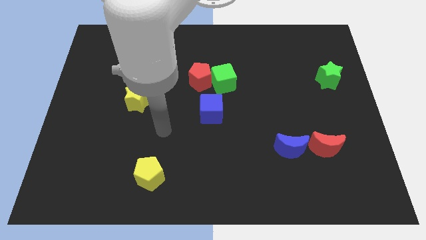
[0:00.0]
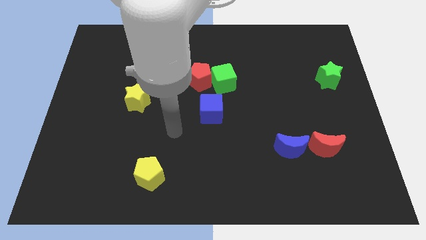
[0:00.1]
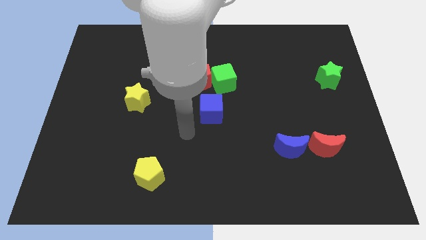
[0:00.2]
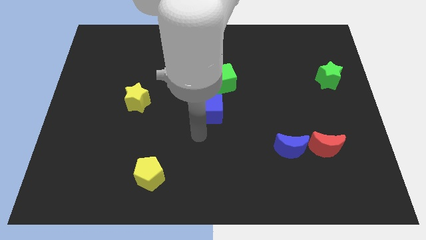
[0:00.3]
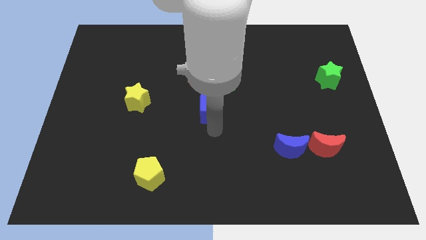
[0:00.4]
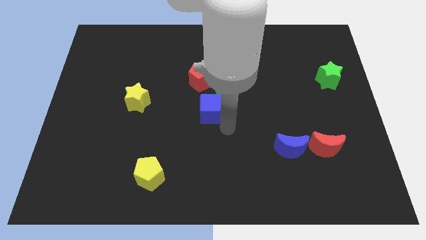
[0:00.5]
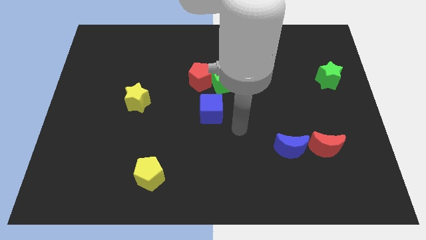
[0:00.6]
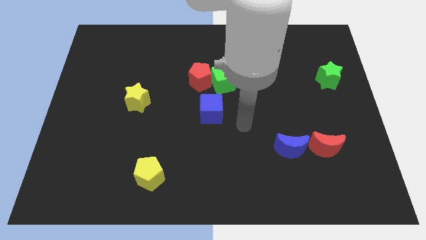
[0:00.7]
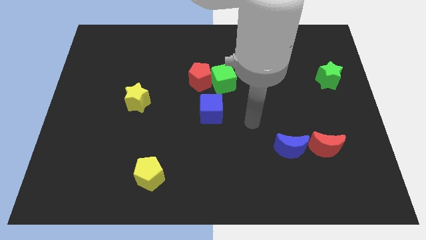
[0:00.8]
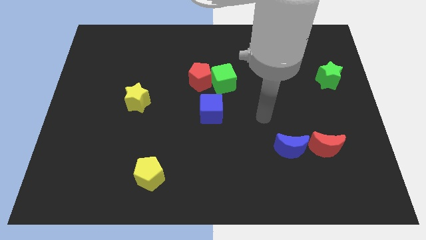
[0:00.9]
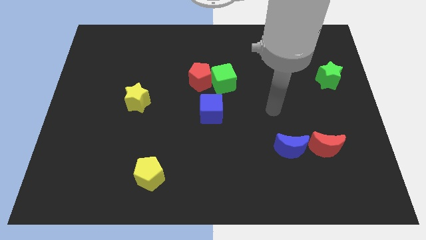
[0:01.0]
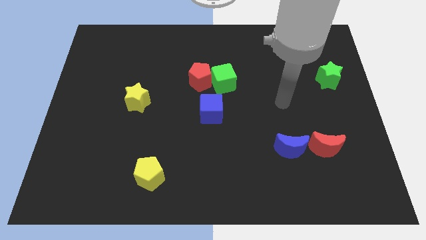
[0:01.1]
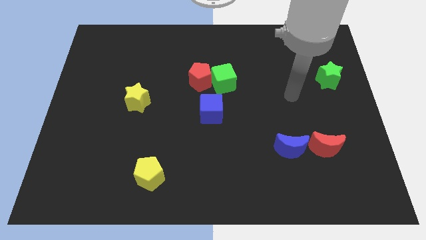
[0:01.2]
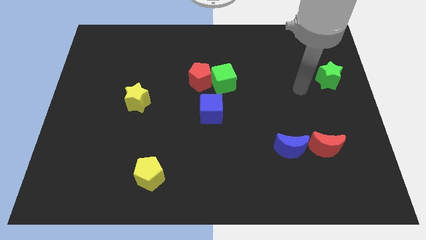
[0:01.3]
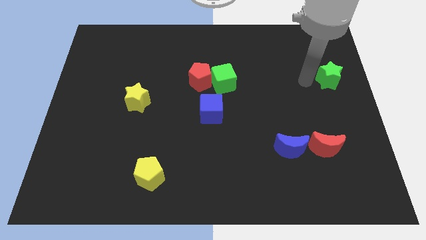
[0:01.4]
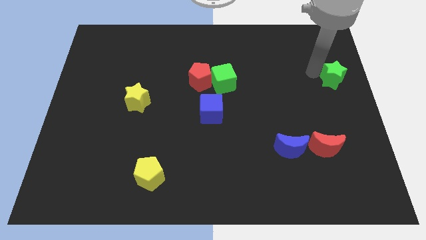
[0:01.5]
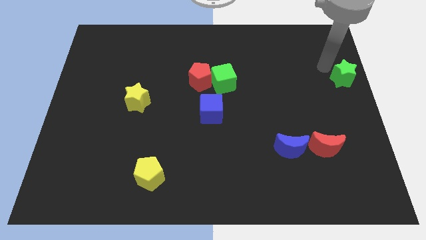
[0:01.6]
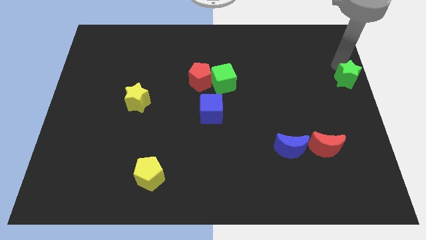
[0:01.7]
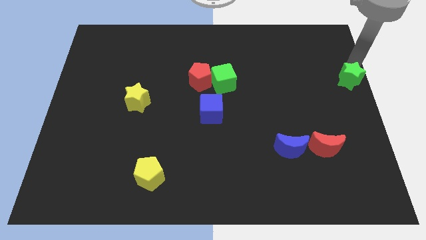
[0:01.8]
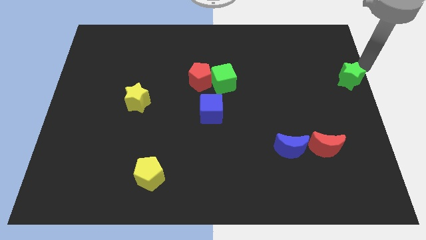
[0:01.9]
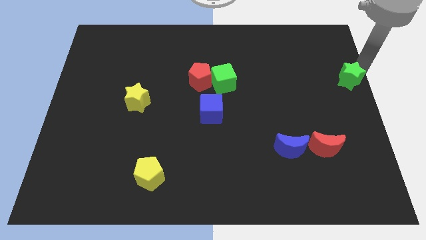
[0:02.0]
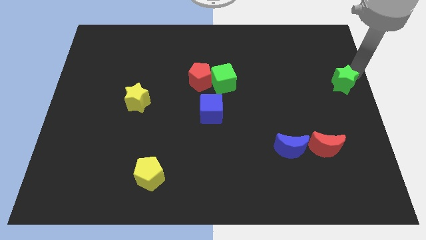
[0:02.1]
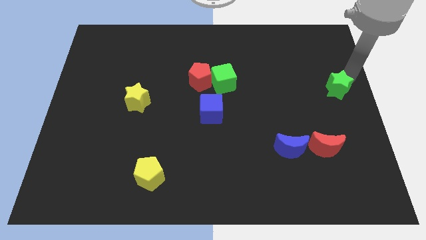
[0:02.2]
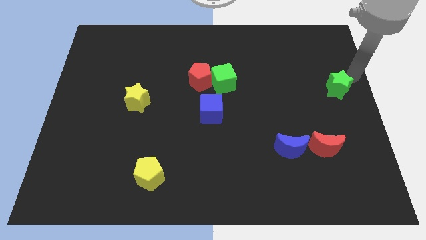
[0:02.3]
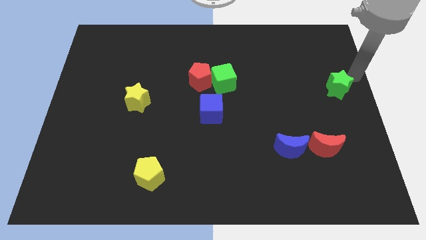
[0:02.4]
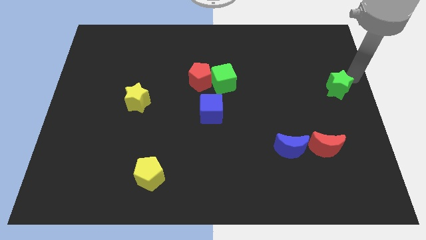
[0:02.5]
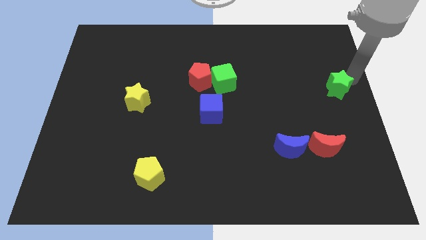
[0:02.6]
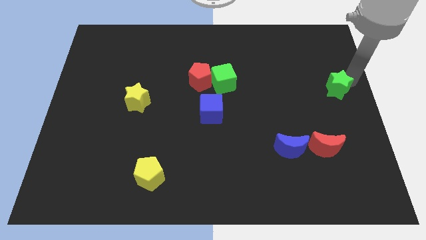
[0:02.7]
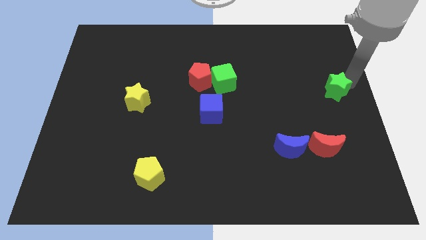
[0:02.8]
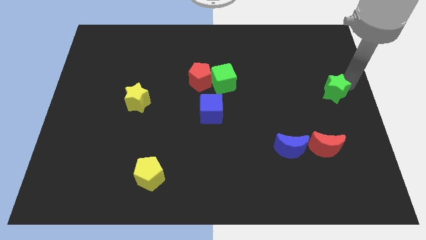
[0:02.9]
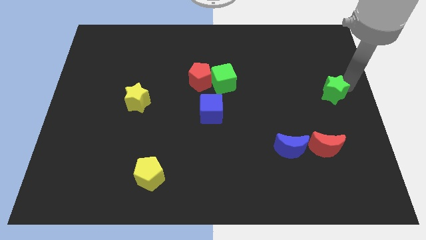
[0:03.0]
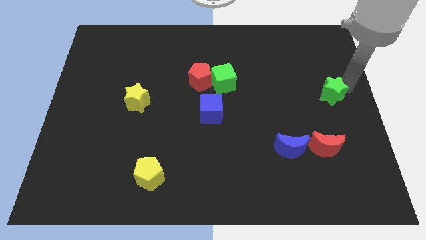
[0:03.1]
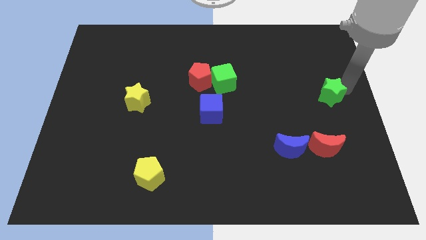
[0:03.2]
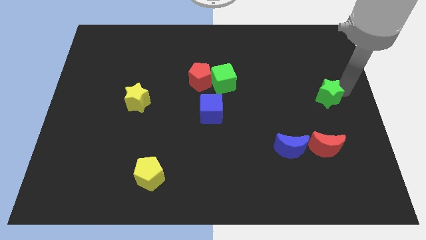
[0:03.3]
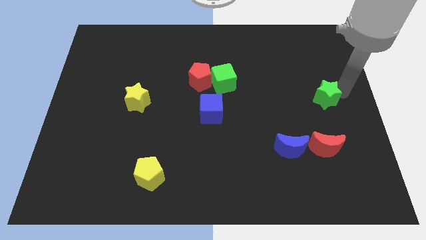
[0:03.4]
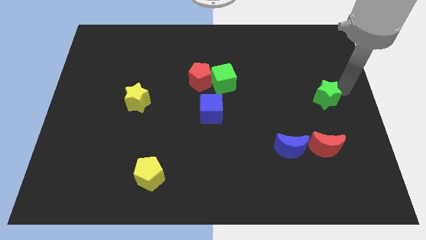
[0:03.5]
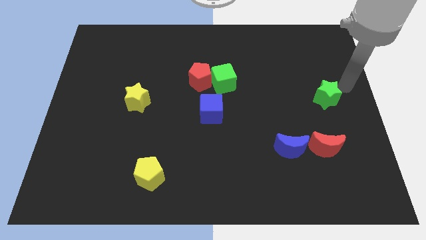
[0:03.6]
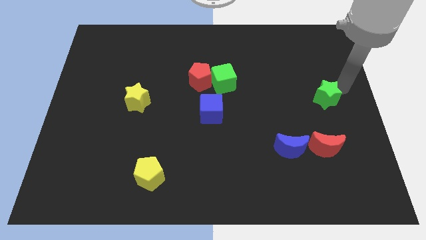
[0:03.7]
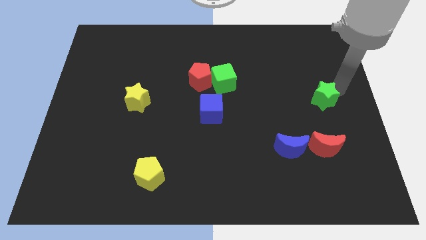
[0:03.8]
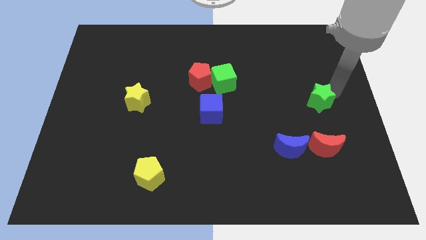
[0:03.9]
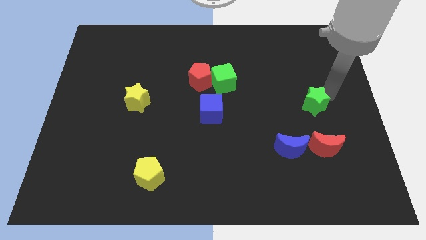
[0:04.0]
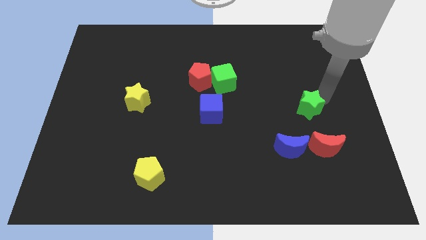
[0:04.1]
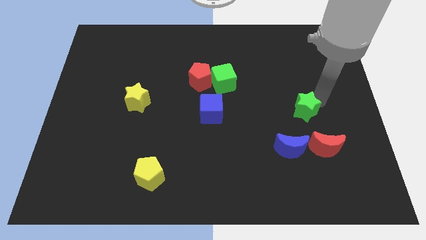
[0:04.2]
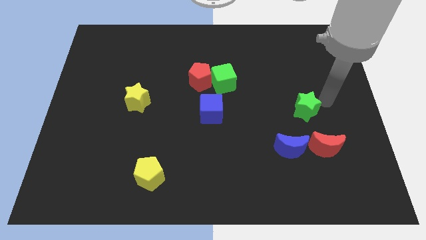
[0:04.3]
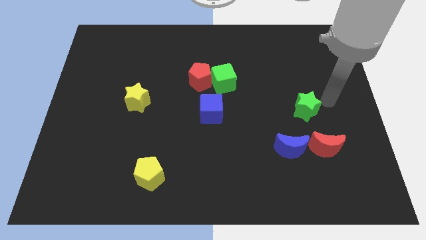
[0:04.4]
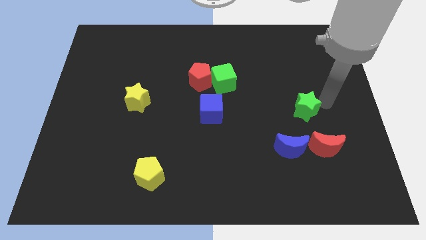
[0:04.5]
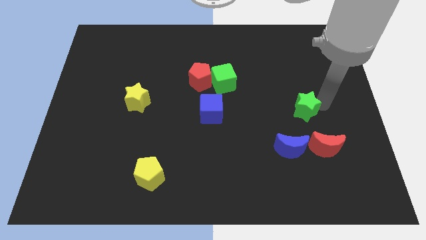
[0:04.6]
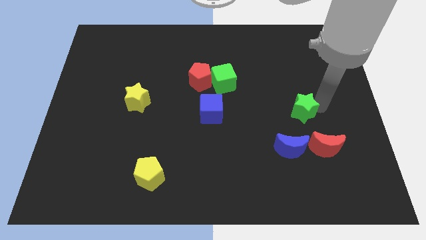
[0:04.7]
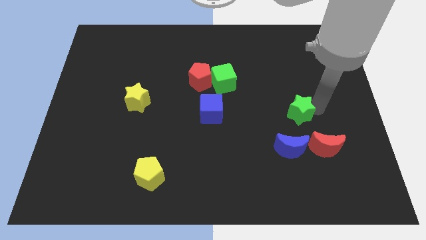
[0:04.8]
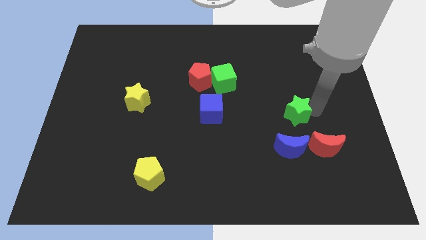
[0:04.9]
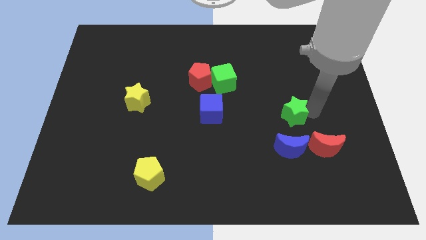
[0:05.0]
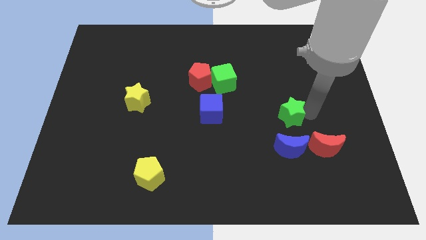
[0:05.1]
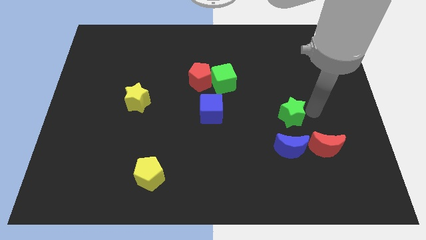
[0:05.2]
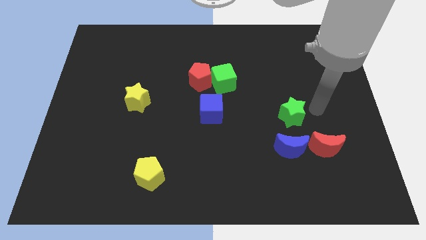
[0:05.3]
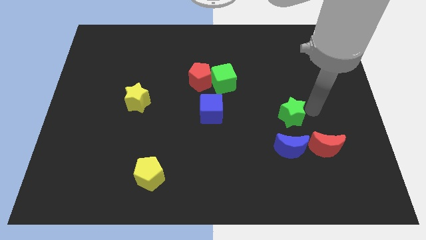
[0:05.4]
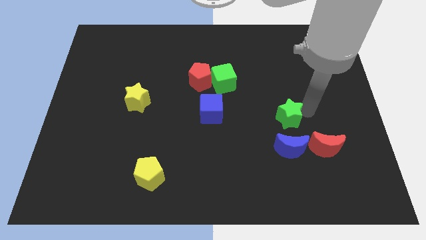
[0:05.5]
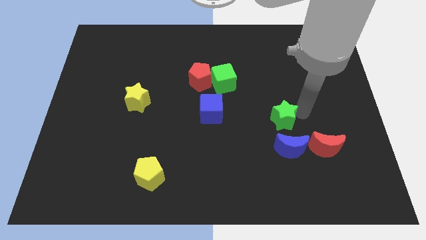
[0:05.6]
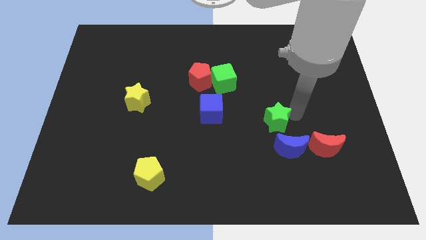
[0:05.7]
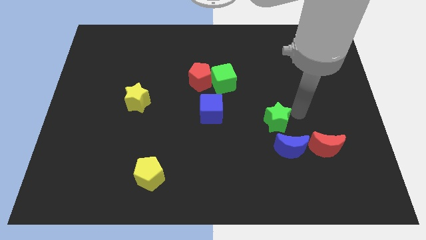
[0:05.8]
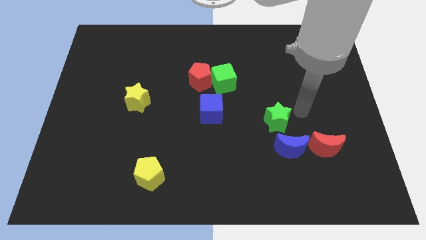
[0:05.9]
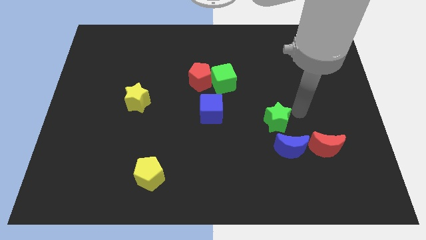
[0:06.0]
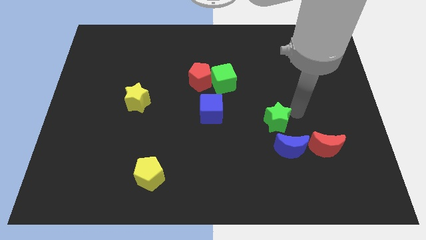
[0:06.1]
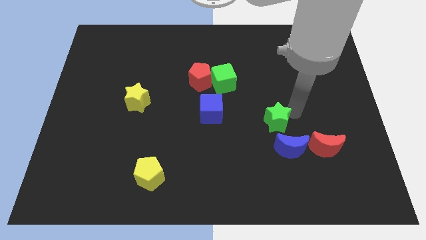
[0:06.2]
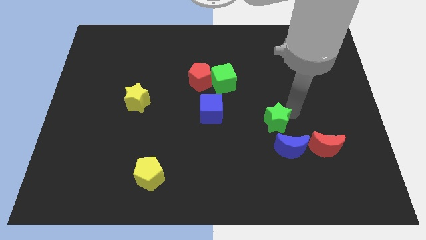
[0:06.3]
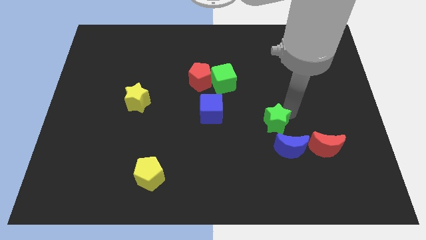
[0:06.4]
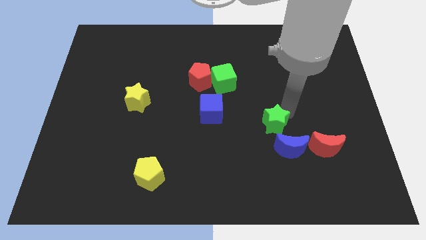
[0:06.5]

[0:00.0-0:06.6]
slide the green star downwards and left

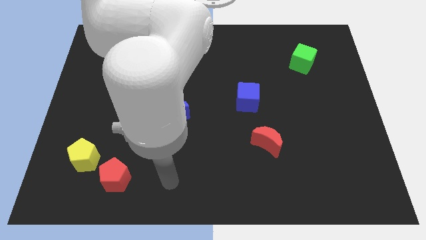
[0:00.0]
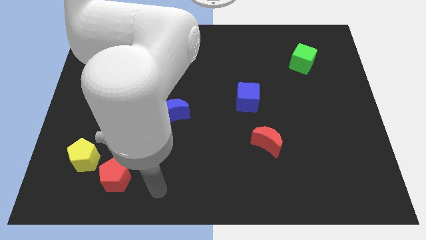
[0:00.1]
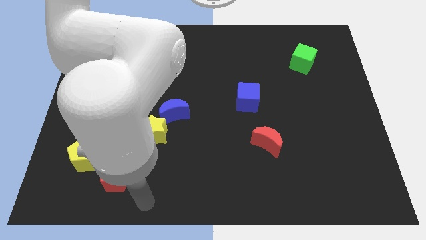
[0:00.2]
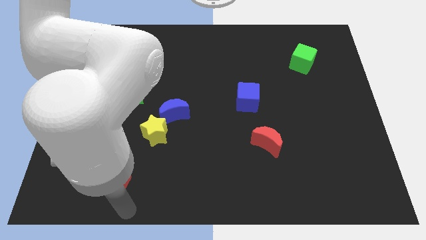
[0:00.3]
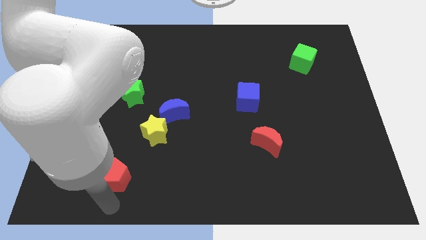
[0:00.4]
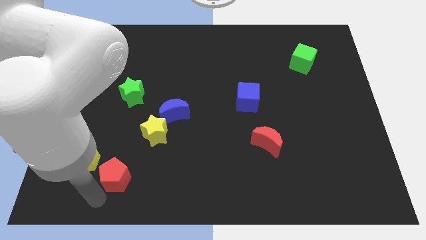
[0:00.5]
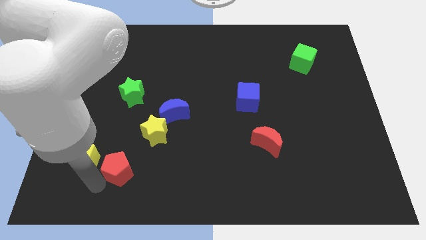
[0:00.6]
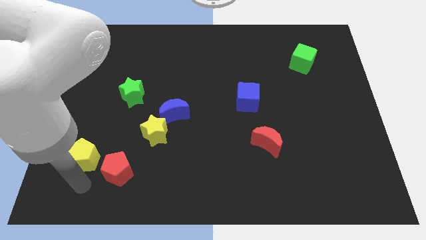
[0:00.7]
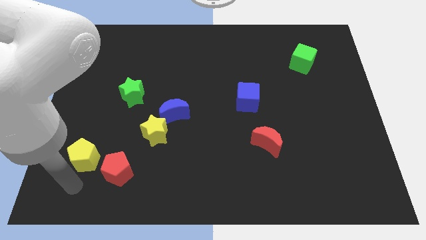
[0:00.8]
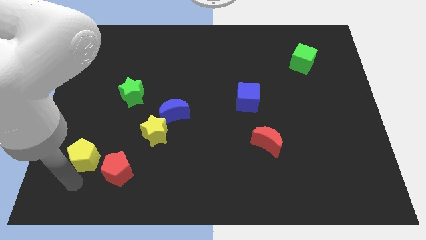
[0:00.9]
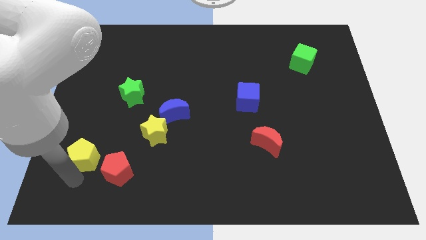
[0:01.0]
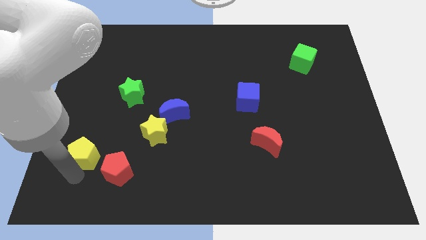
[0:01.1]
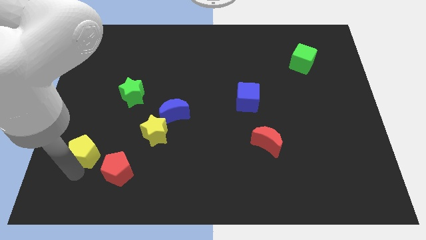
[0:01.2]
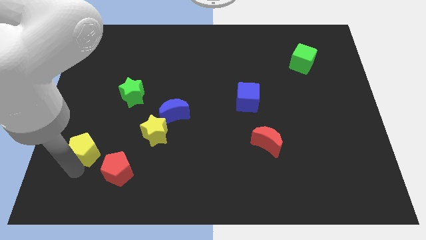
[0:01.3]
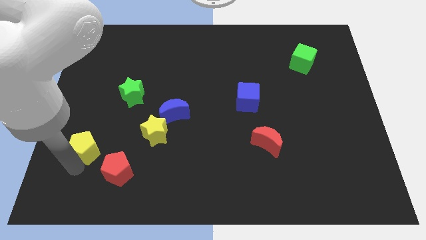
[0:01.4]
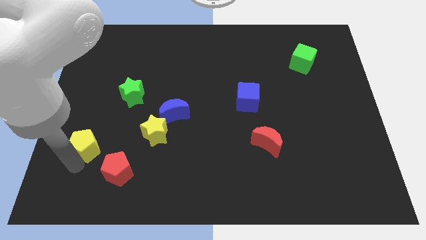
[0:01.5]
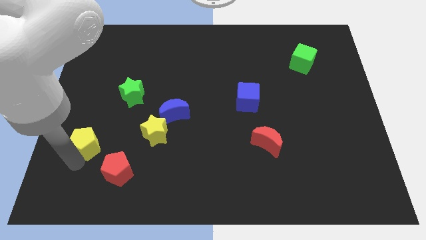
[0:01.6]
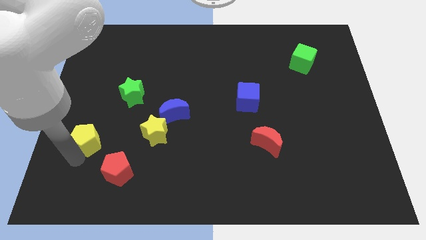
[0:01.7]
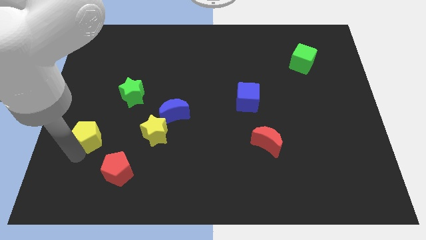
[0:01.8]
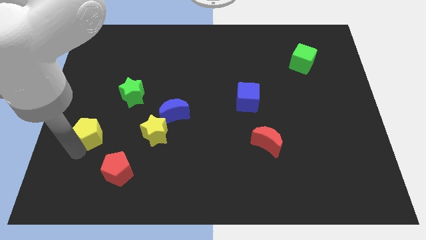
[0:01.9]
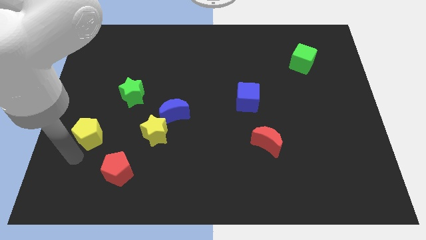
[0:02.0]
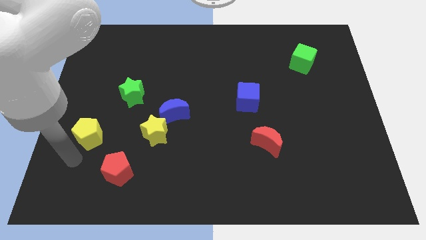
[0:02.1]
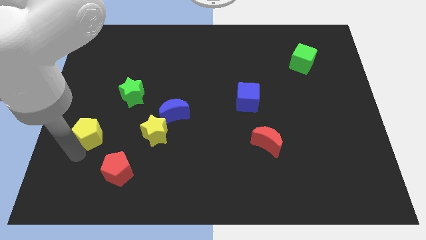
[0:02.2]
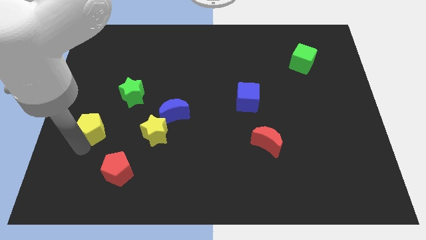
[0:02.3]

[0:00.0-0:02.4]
push the yellow pentagon a little bit up
